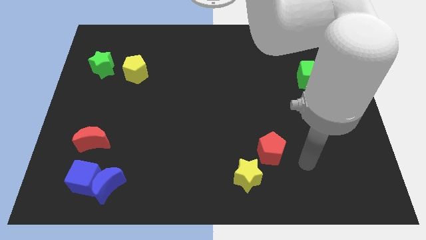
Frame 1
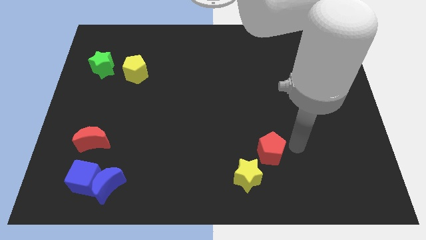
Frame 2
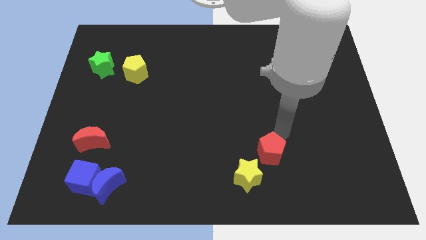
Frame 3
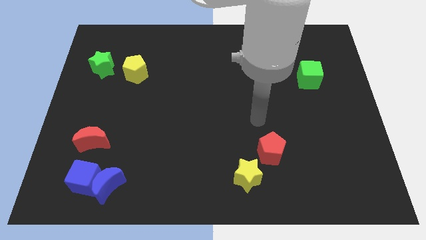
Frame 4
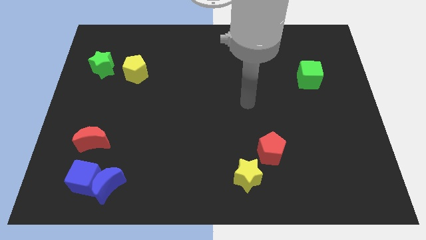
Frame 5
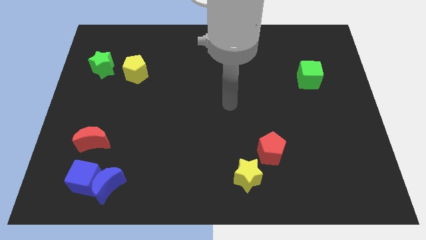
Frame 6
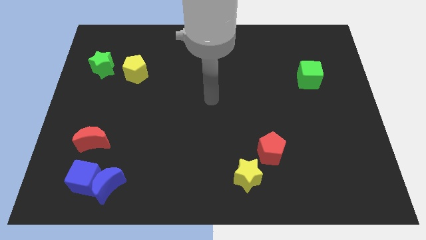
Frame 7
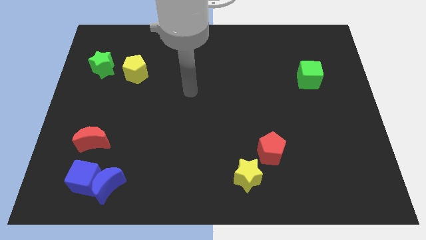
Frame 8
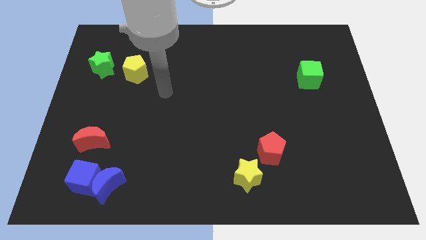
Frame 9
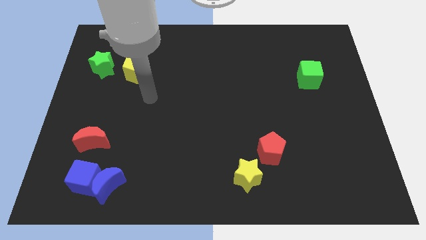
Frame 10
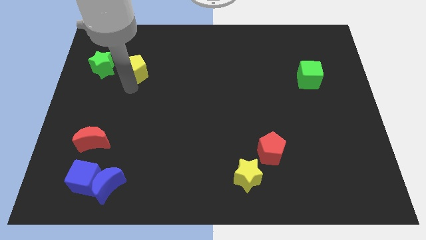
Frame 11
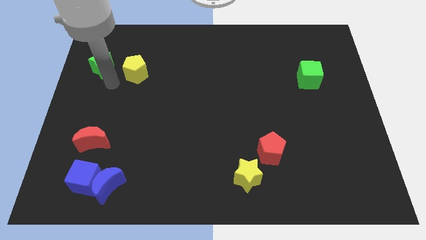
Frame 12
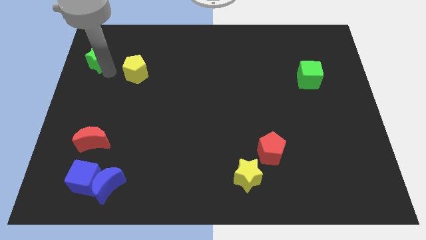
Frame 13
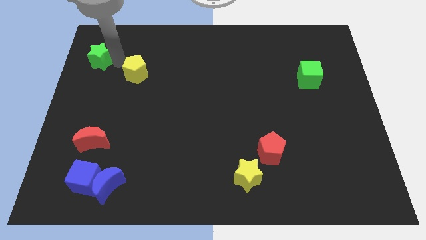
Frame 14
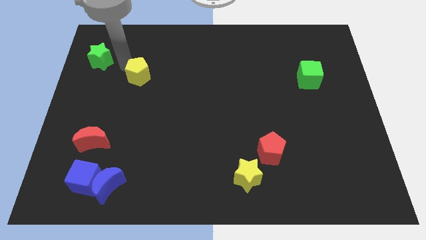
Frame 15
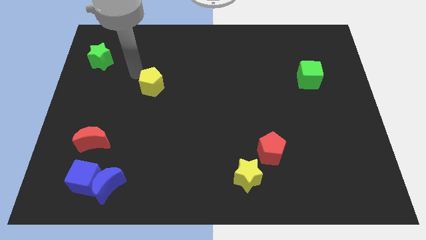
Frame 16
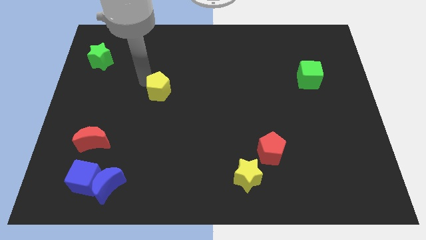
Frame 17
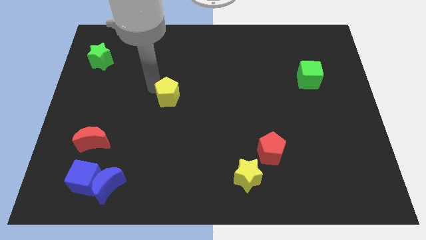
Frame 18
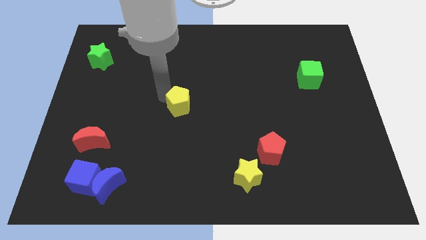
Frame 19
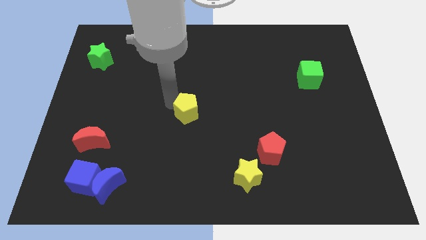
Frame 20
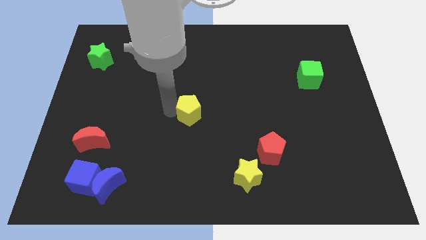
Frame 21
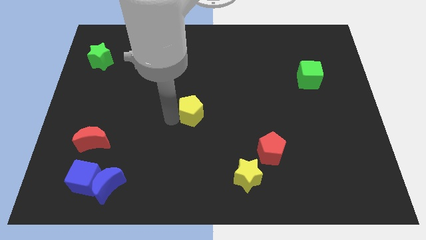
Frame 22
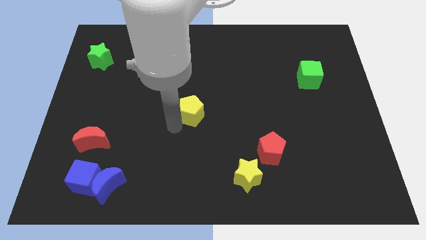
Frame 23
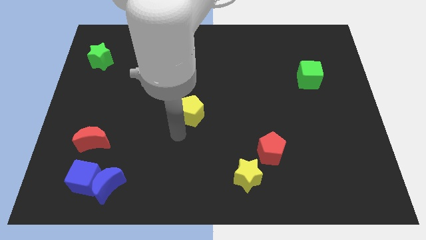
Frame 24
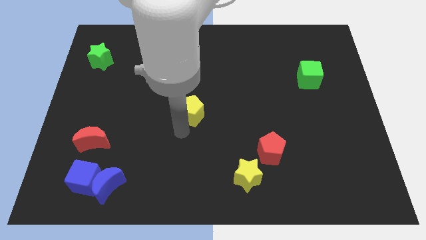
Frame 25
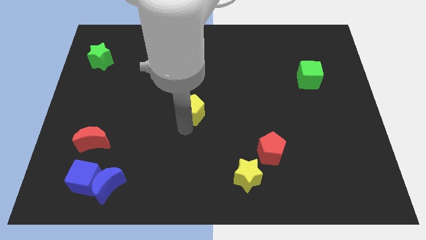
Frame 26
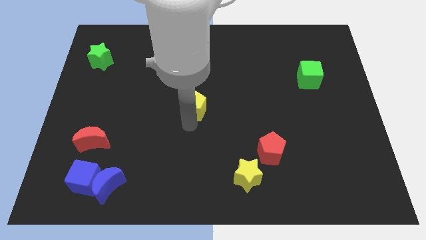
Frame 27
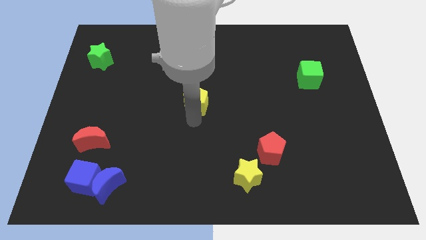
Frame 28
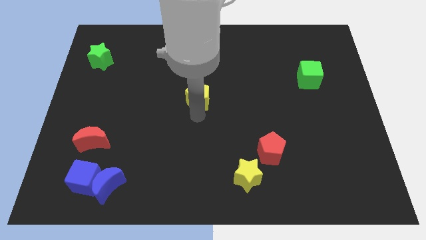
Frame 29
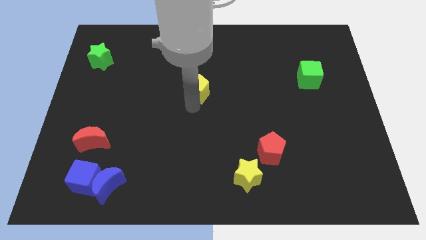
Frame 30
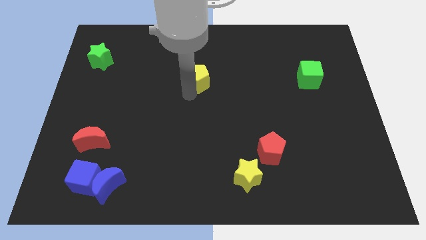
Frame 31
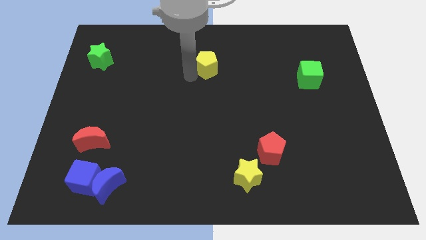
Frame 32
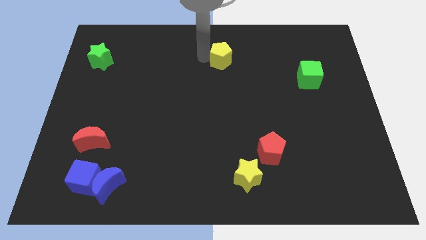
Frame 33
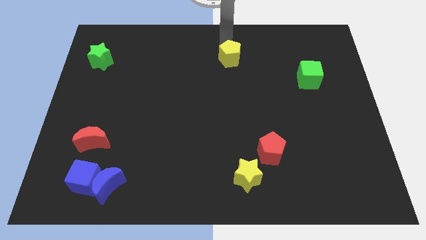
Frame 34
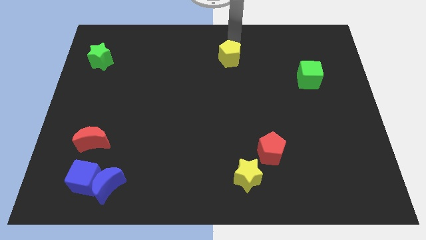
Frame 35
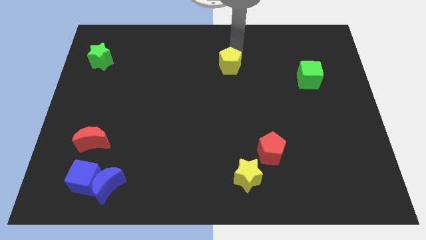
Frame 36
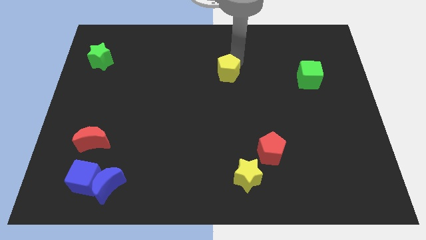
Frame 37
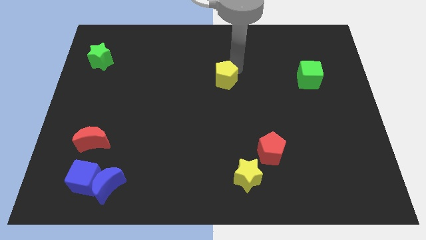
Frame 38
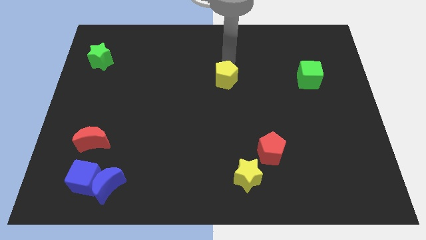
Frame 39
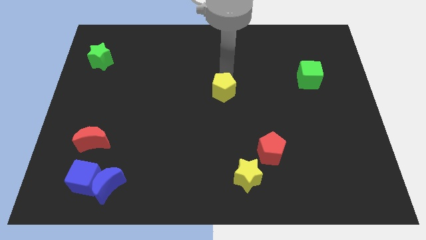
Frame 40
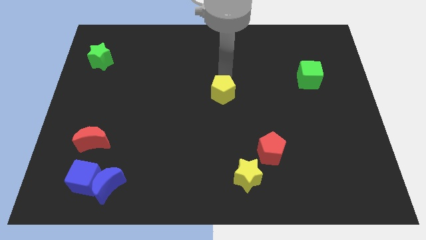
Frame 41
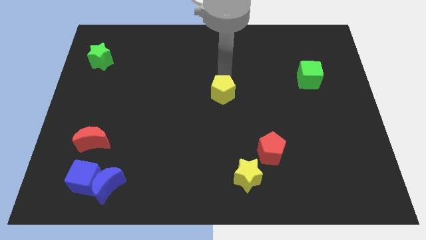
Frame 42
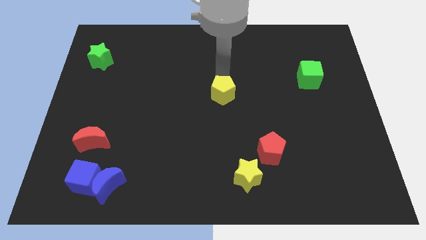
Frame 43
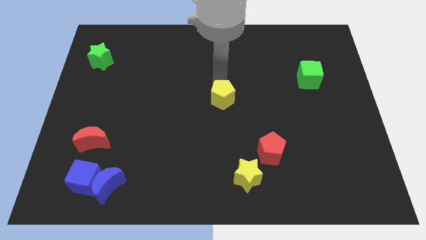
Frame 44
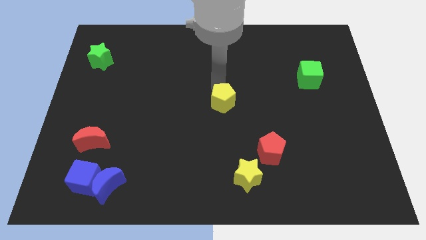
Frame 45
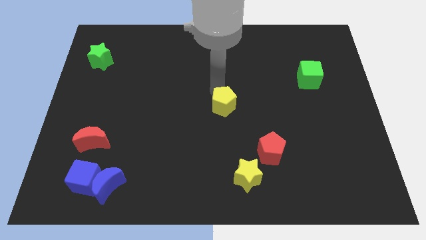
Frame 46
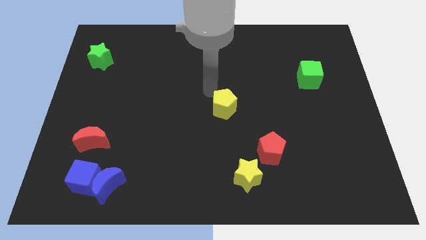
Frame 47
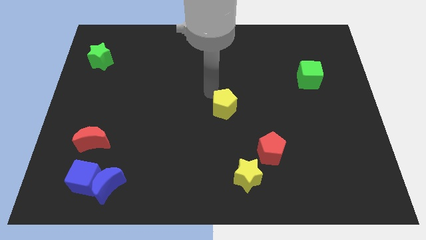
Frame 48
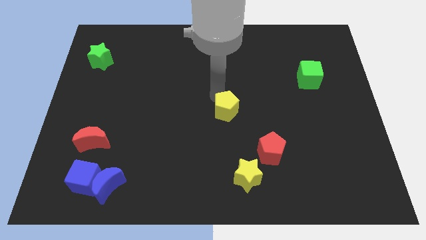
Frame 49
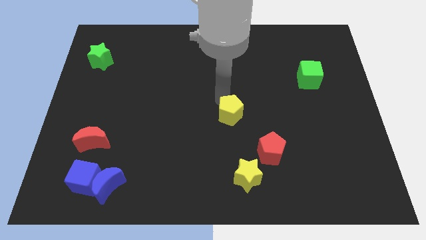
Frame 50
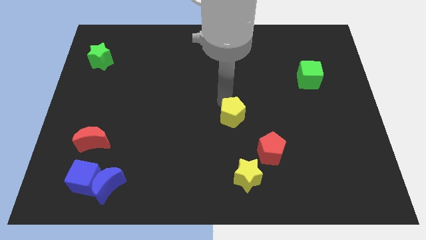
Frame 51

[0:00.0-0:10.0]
slide the yellow pentagon to the top left of the red pentagon

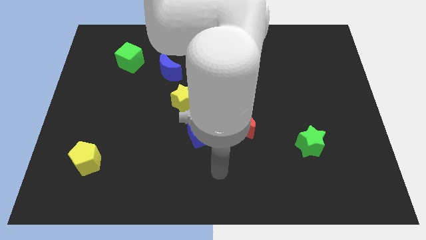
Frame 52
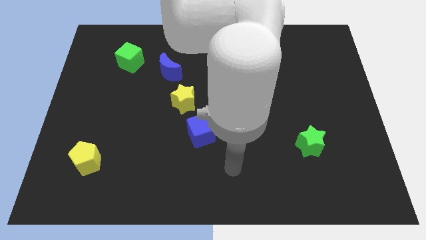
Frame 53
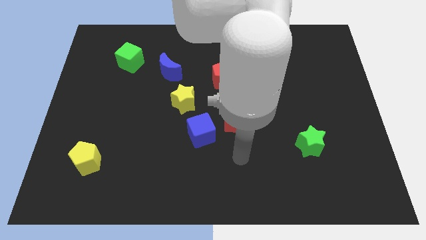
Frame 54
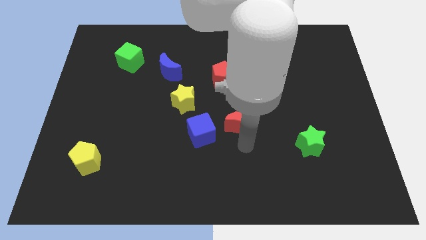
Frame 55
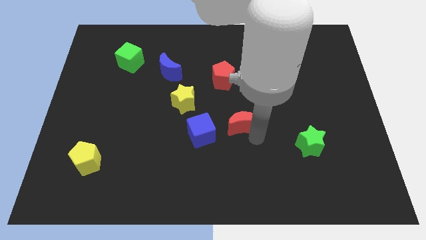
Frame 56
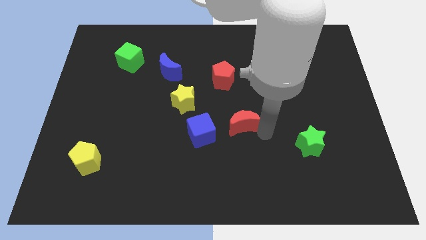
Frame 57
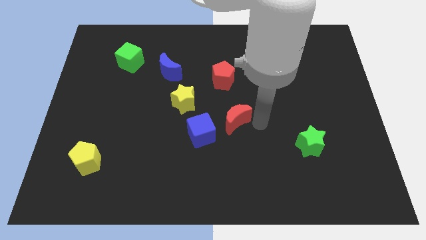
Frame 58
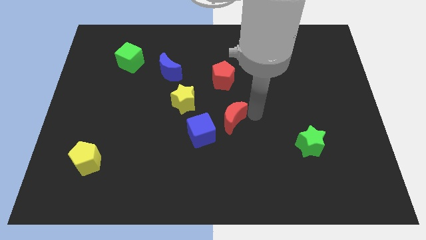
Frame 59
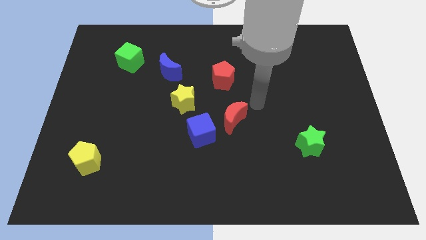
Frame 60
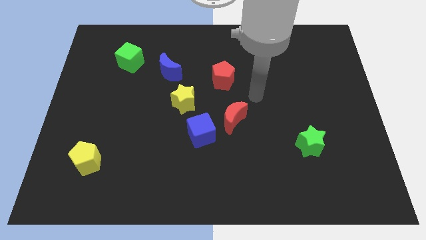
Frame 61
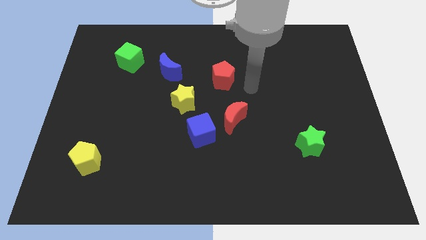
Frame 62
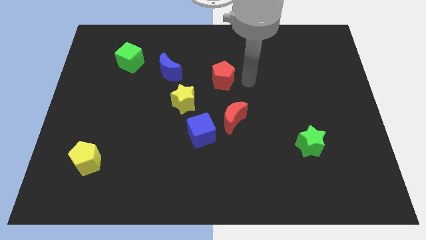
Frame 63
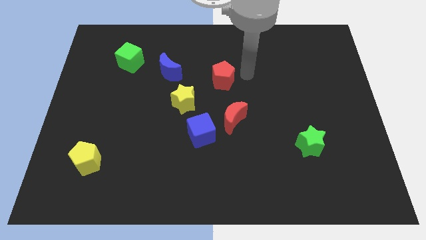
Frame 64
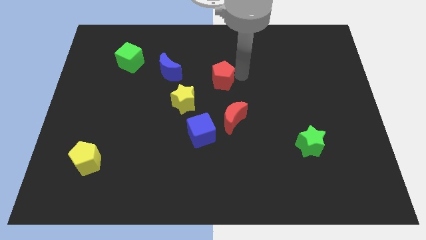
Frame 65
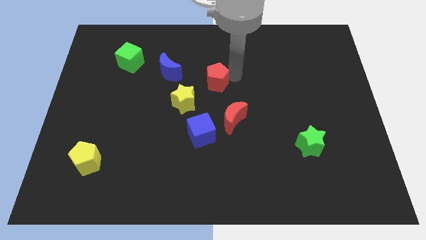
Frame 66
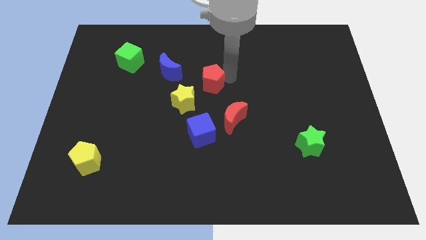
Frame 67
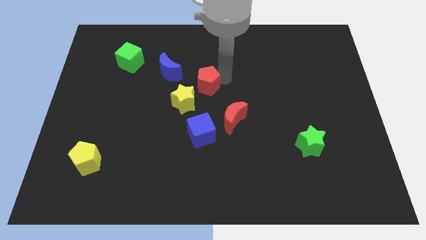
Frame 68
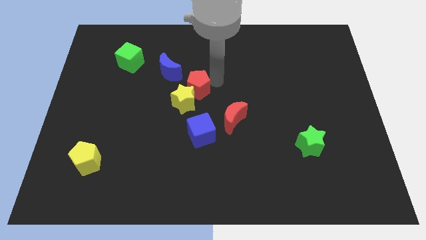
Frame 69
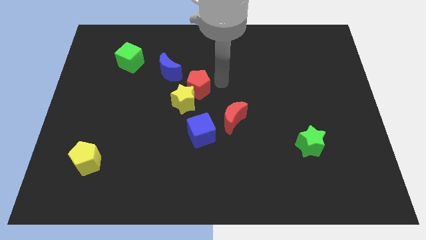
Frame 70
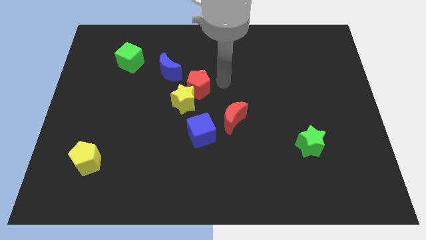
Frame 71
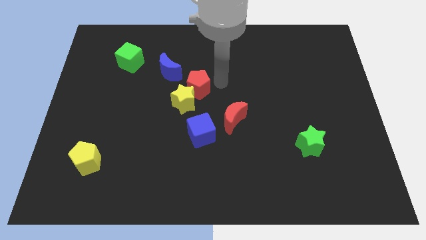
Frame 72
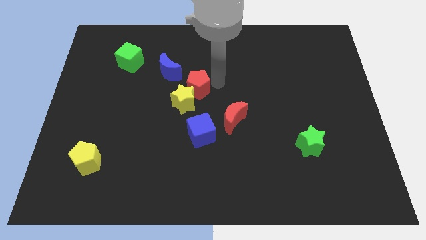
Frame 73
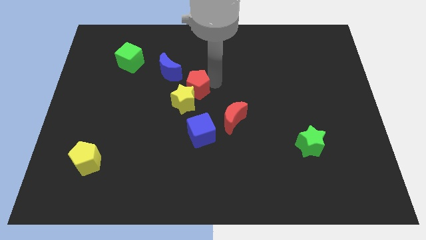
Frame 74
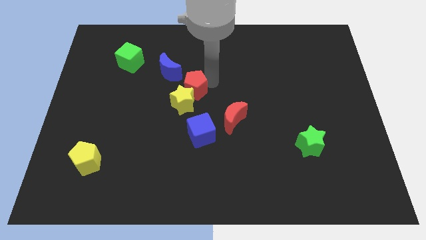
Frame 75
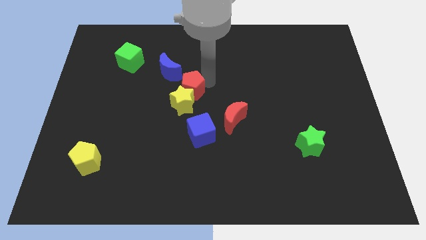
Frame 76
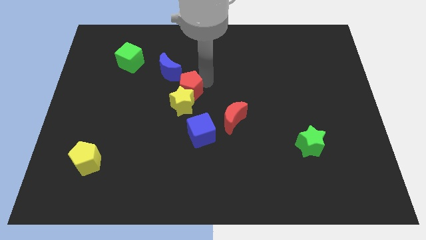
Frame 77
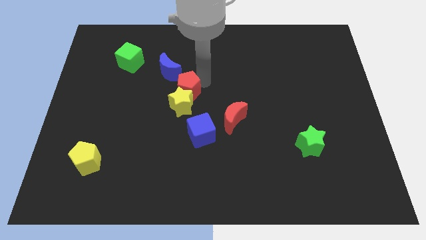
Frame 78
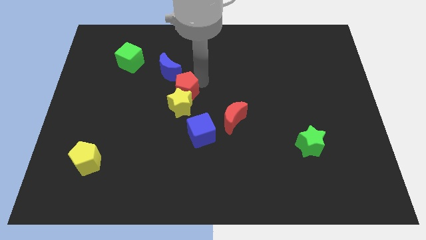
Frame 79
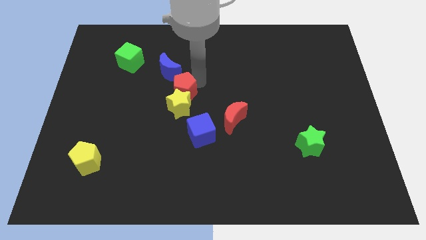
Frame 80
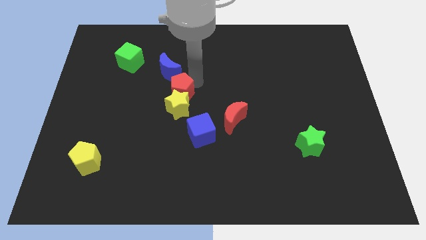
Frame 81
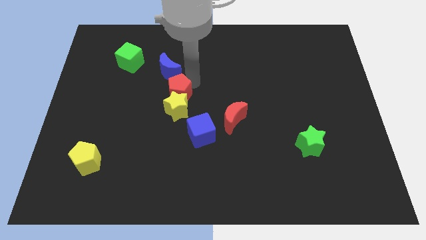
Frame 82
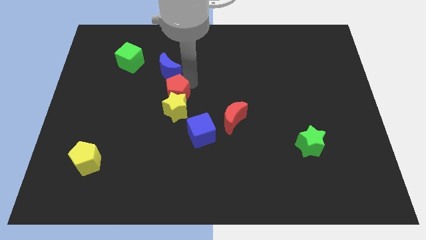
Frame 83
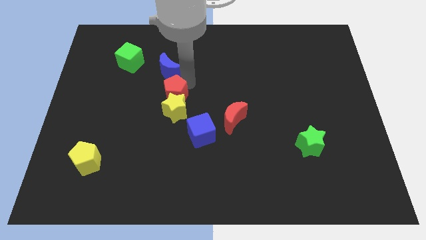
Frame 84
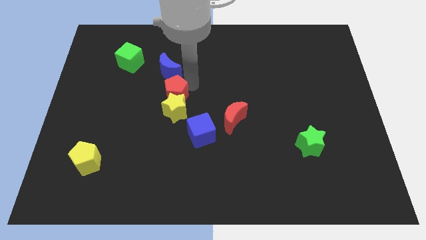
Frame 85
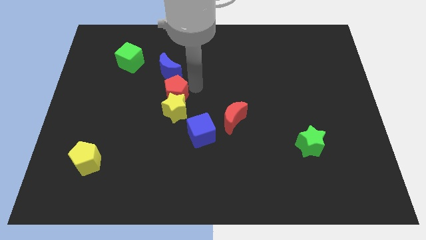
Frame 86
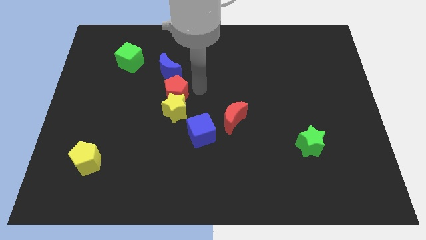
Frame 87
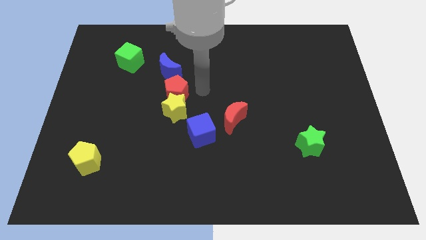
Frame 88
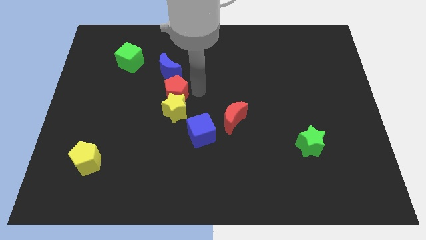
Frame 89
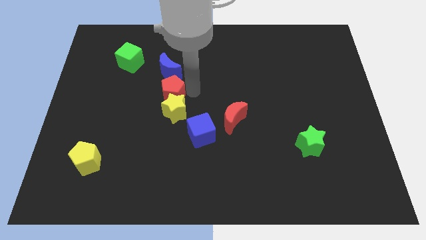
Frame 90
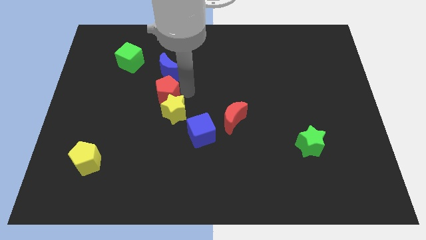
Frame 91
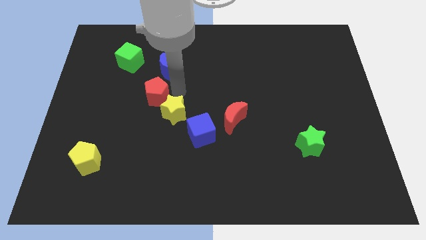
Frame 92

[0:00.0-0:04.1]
slide the red pentagon left of the yellow star
